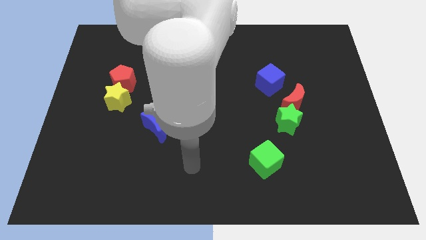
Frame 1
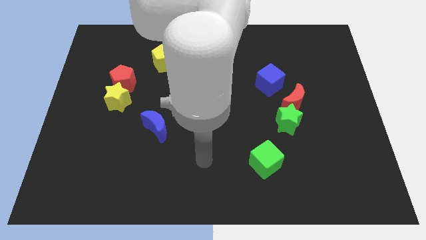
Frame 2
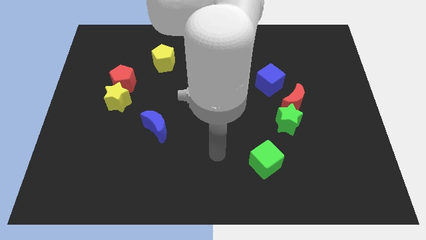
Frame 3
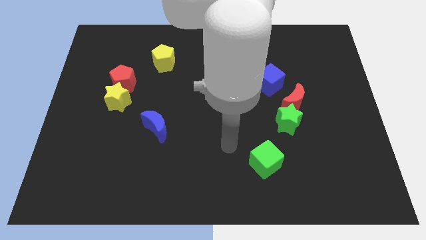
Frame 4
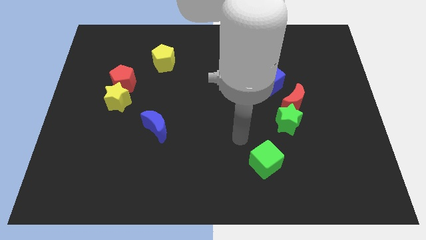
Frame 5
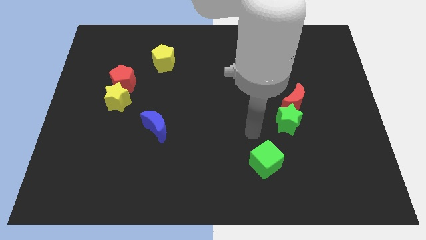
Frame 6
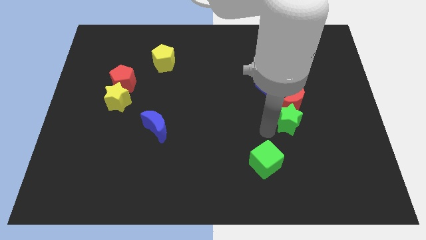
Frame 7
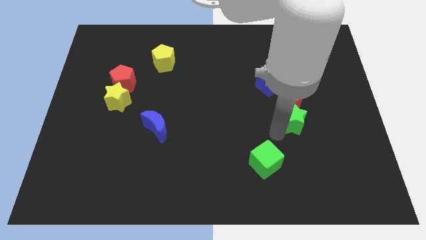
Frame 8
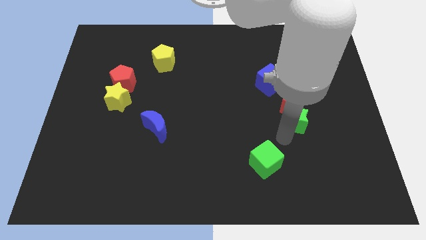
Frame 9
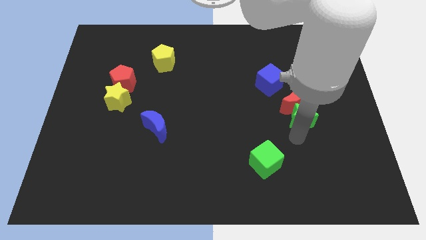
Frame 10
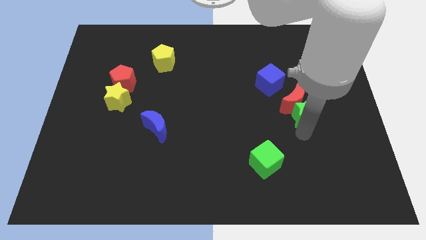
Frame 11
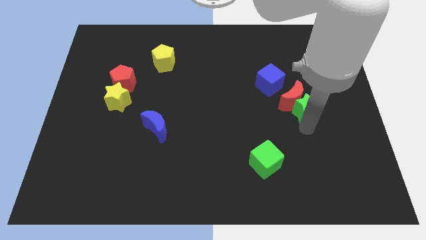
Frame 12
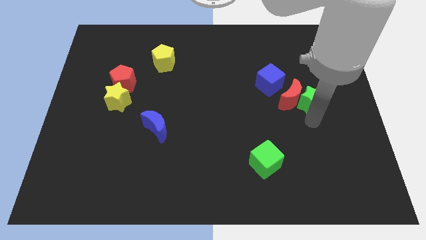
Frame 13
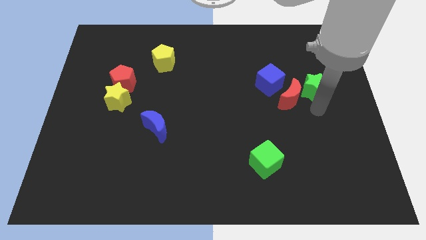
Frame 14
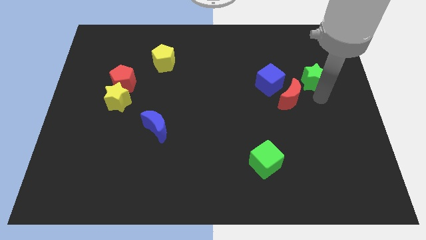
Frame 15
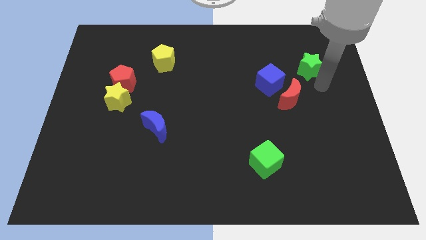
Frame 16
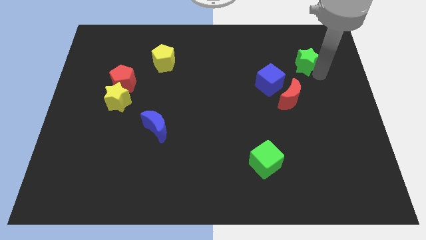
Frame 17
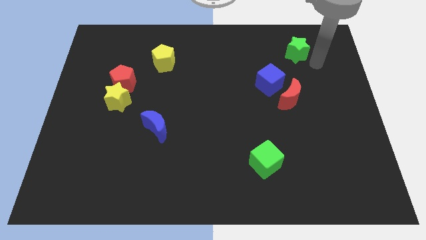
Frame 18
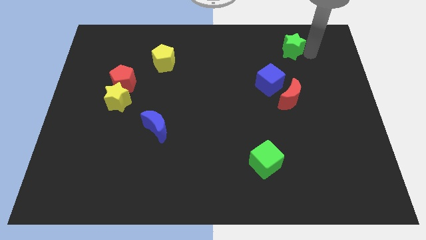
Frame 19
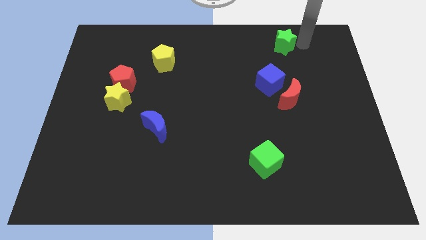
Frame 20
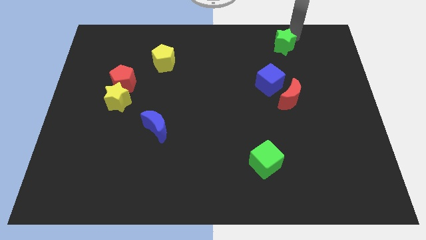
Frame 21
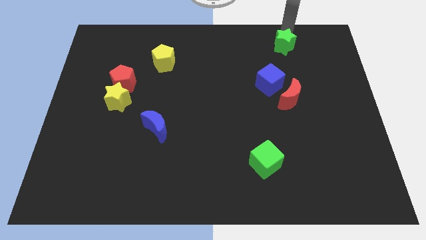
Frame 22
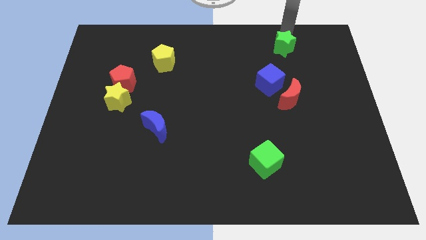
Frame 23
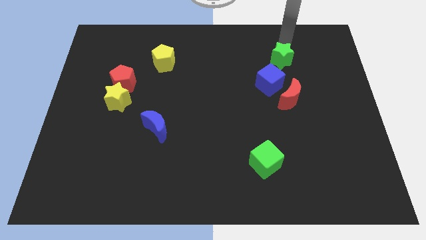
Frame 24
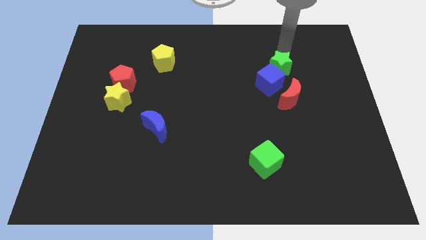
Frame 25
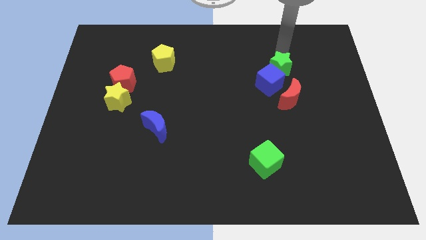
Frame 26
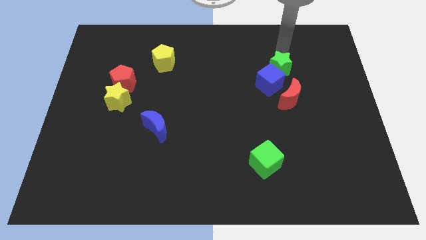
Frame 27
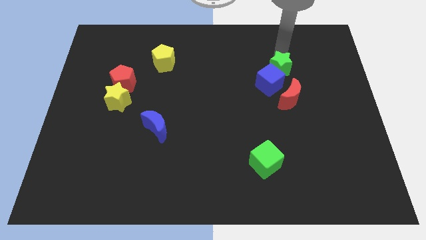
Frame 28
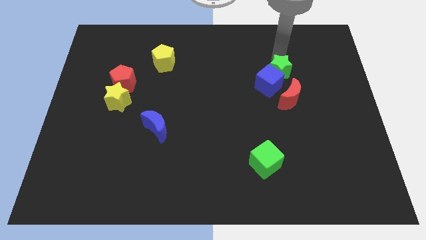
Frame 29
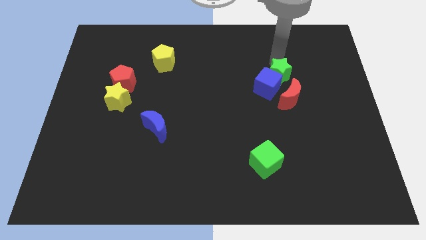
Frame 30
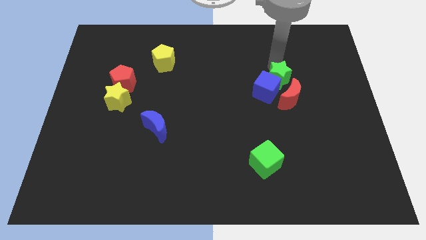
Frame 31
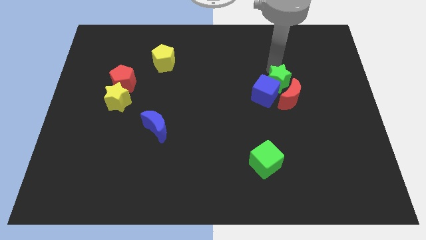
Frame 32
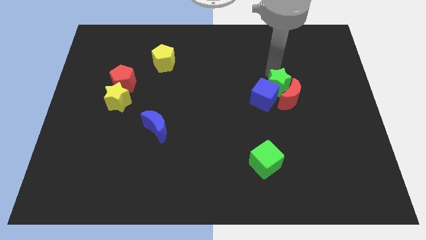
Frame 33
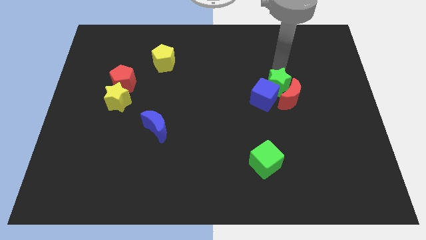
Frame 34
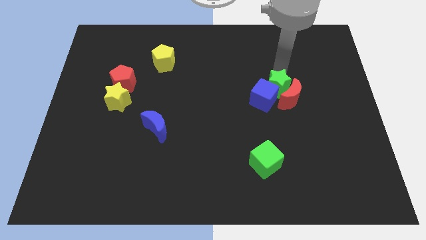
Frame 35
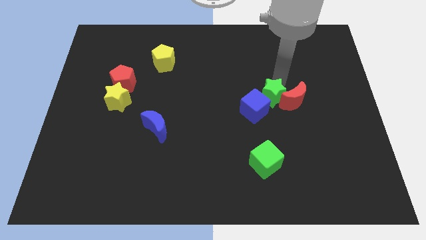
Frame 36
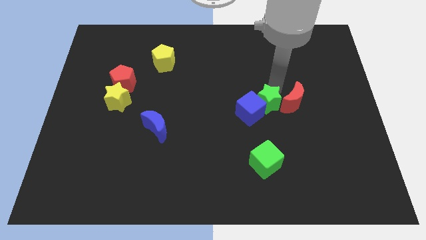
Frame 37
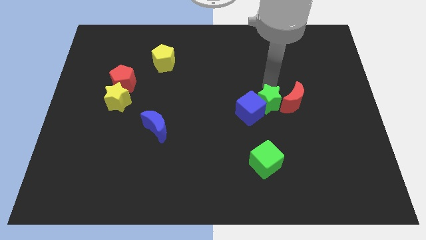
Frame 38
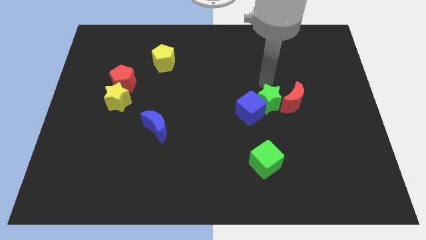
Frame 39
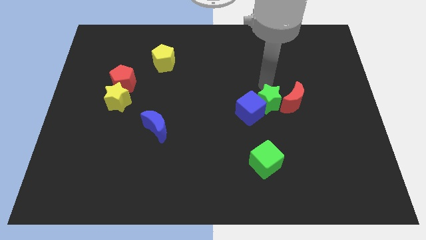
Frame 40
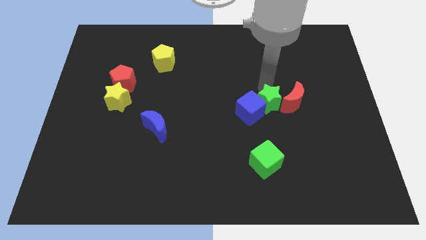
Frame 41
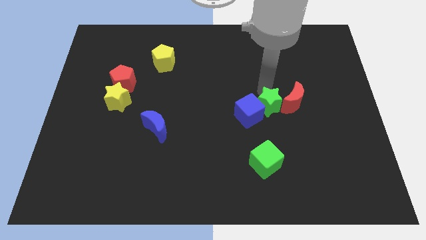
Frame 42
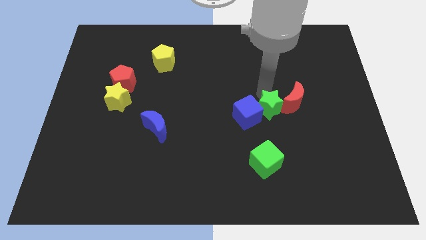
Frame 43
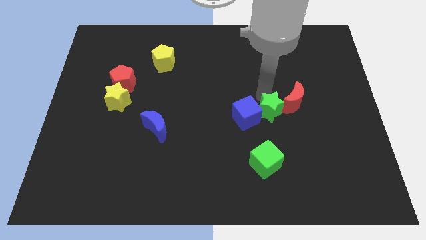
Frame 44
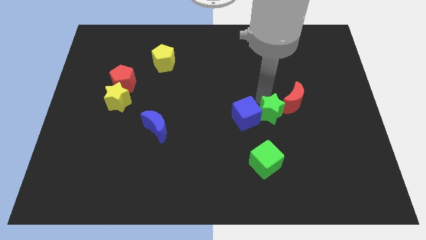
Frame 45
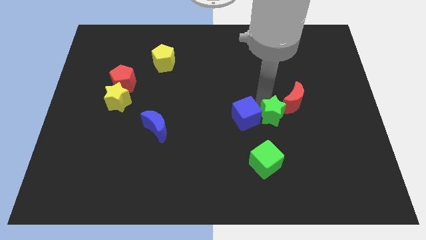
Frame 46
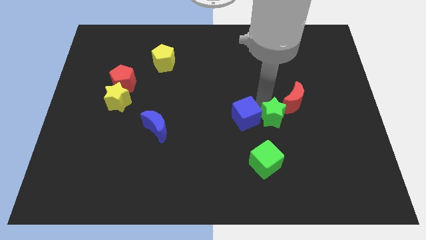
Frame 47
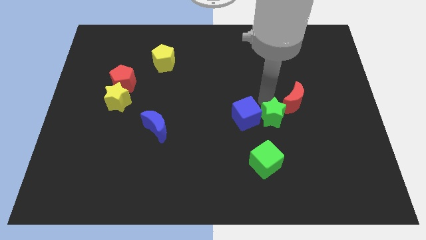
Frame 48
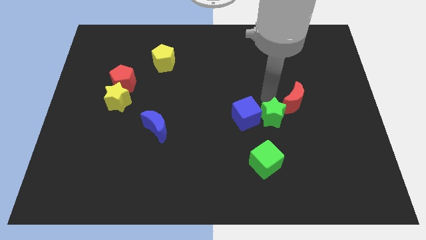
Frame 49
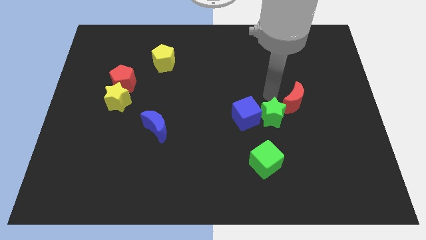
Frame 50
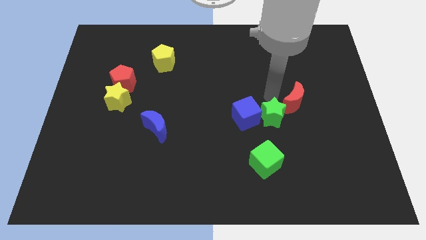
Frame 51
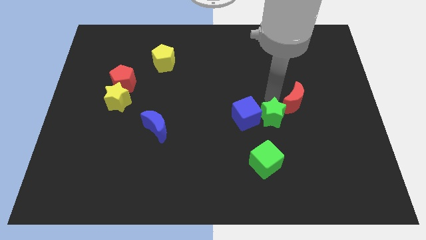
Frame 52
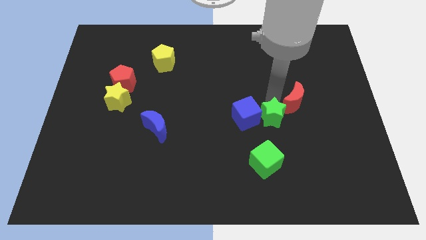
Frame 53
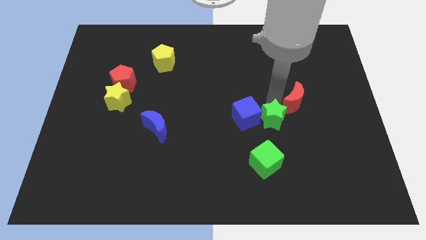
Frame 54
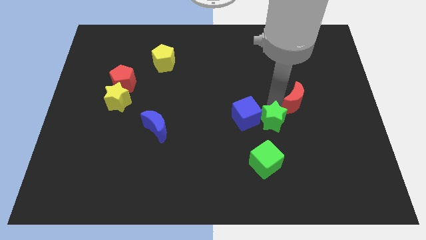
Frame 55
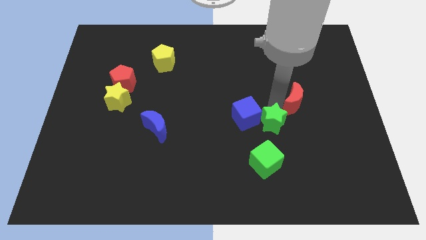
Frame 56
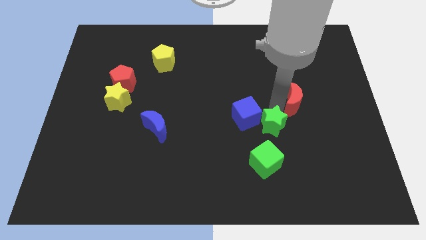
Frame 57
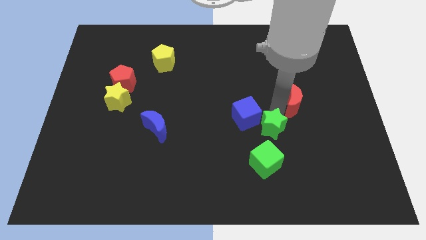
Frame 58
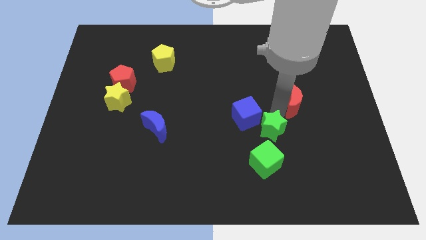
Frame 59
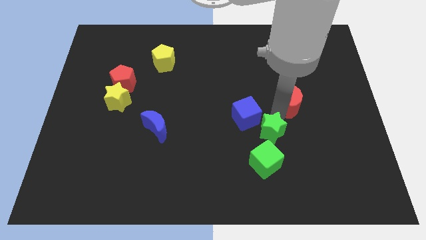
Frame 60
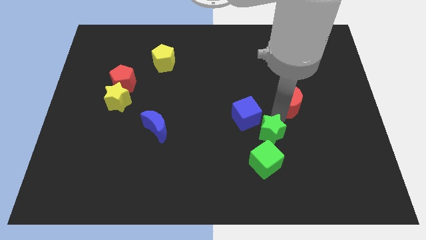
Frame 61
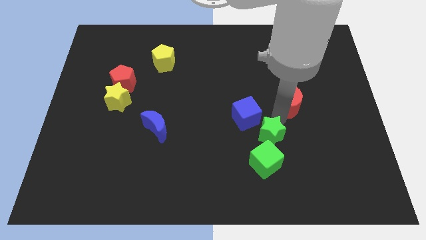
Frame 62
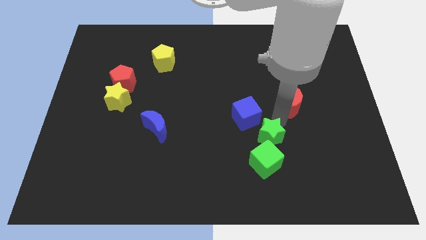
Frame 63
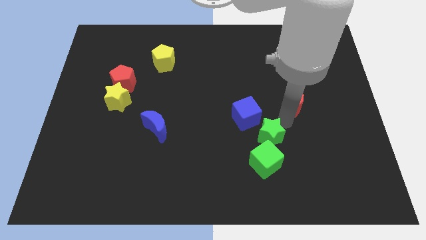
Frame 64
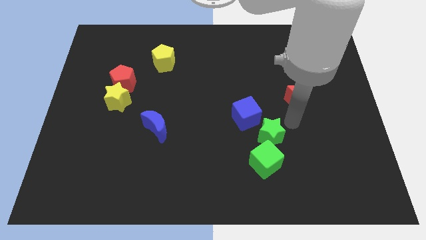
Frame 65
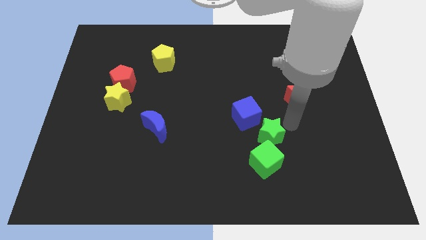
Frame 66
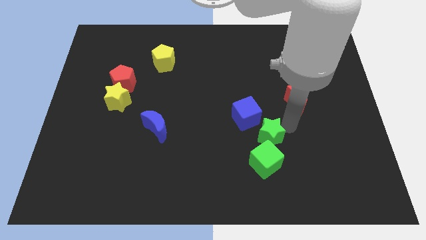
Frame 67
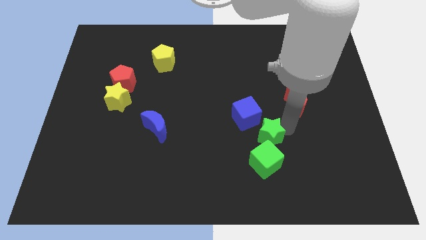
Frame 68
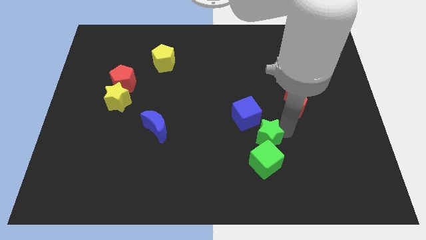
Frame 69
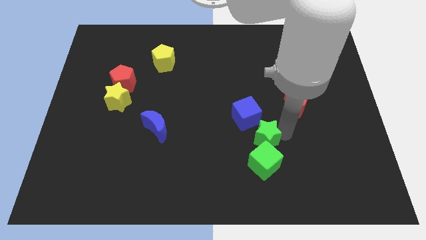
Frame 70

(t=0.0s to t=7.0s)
move the green star down and left a bit

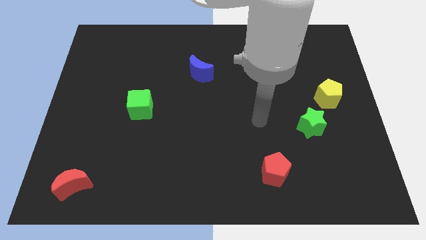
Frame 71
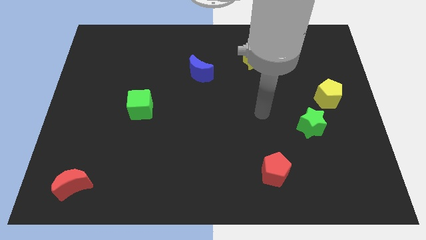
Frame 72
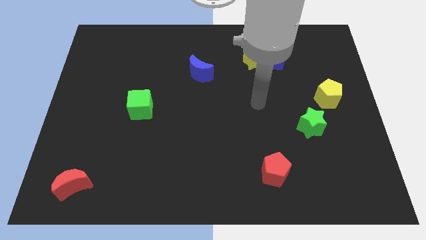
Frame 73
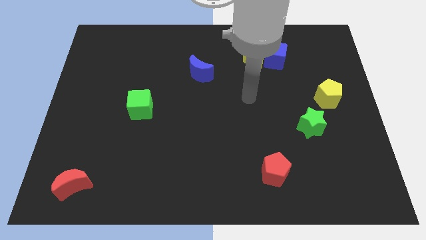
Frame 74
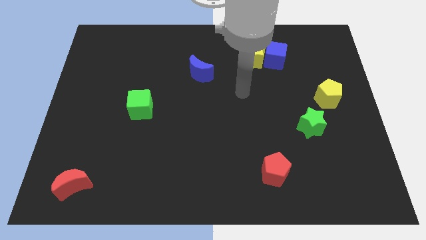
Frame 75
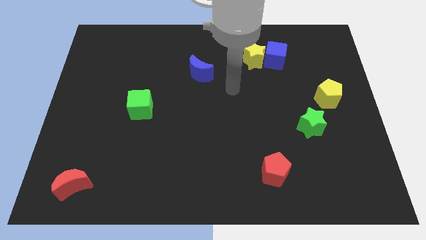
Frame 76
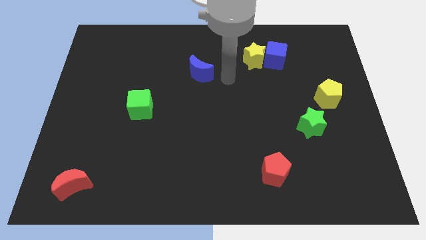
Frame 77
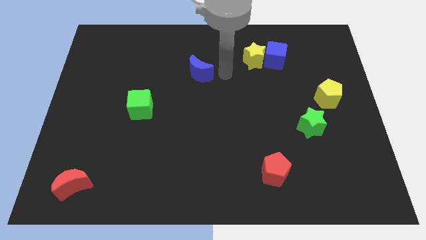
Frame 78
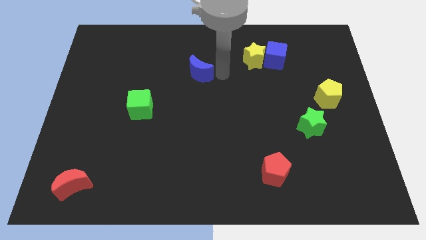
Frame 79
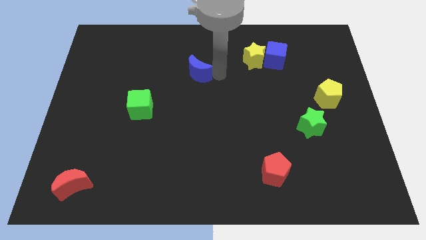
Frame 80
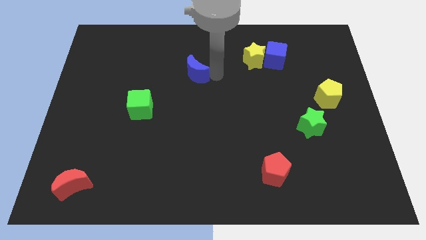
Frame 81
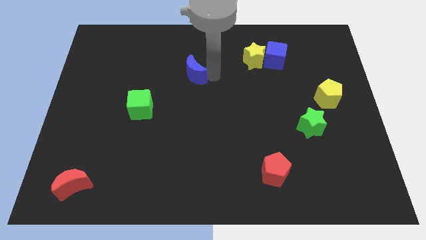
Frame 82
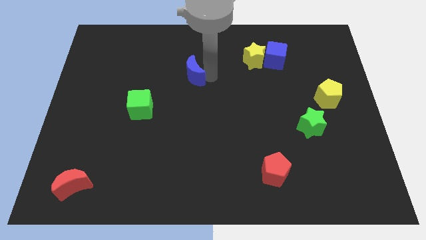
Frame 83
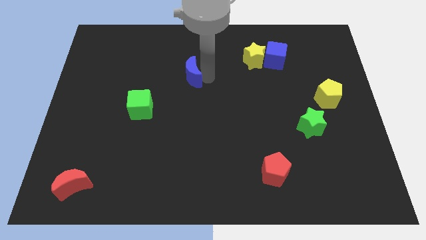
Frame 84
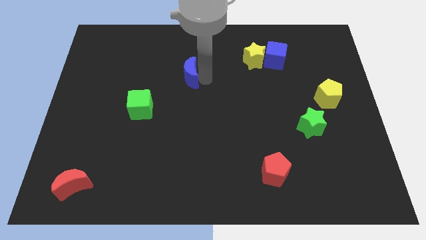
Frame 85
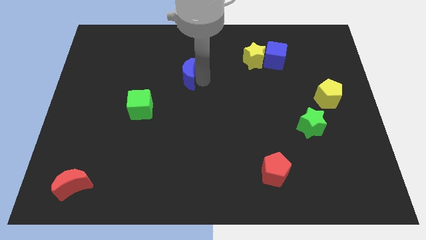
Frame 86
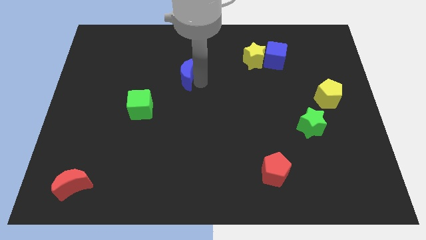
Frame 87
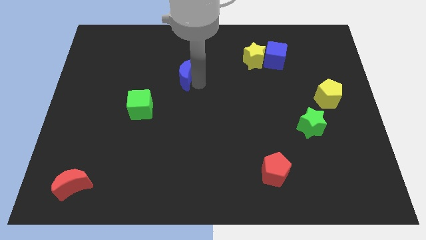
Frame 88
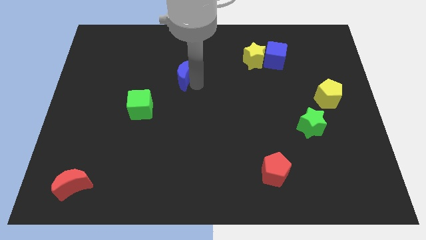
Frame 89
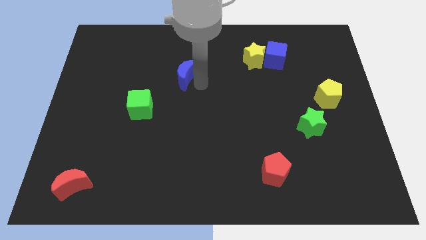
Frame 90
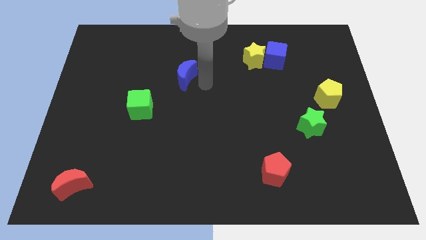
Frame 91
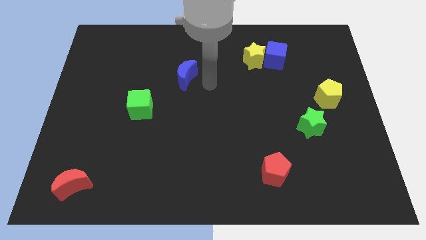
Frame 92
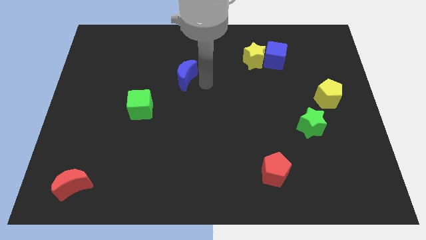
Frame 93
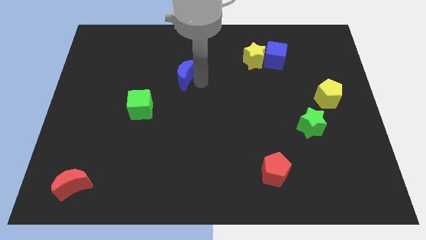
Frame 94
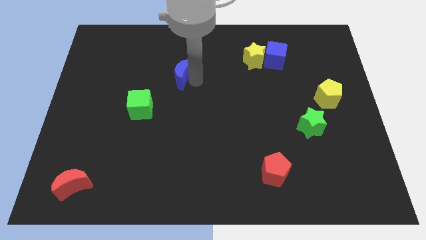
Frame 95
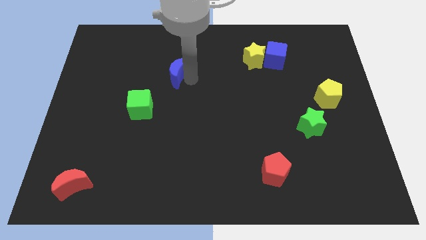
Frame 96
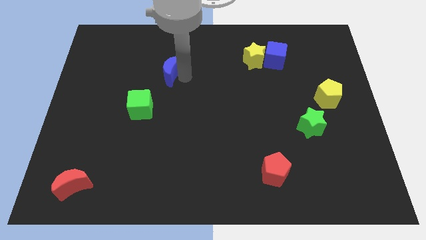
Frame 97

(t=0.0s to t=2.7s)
slightly slide the blue moon left
